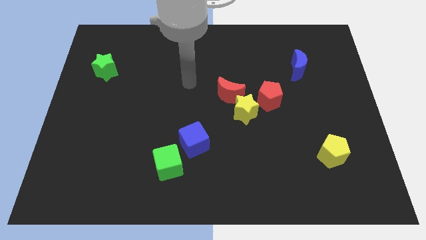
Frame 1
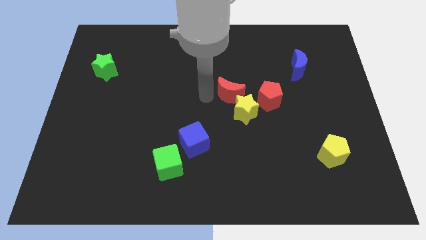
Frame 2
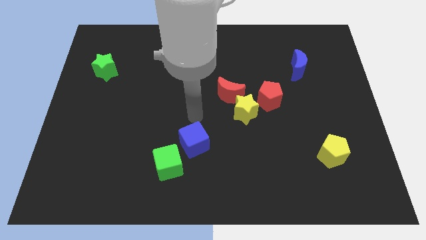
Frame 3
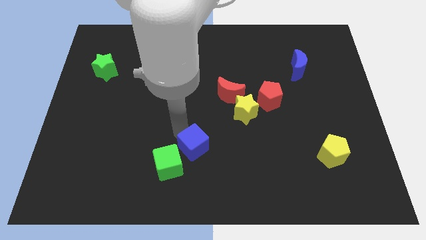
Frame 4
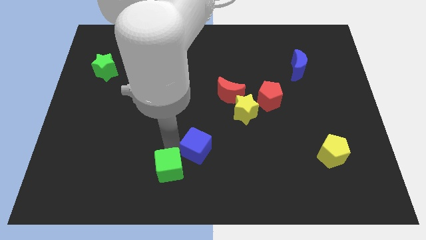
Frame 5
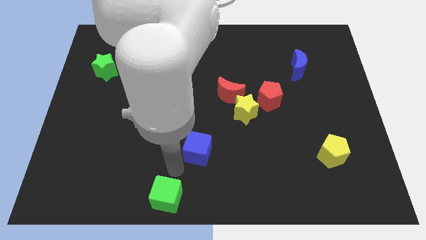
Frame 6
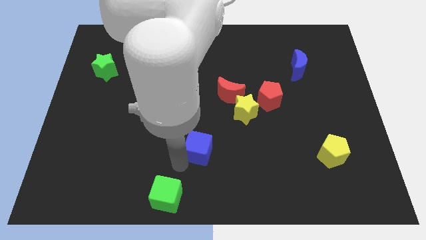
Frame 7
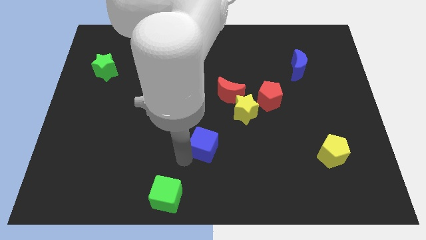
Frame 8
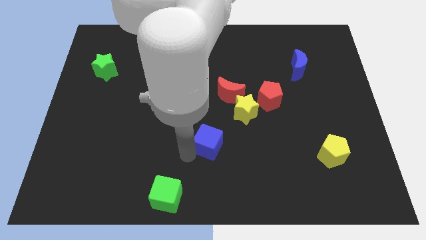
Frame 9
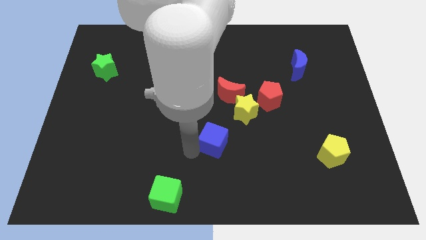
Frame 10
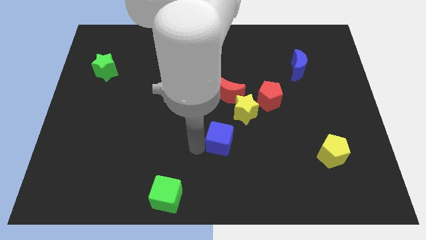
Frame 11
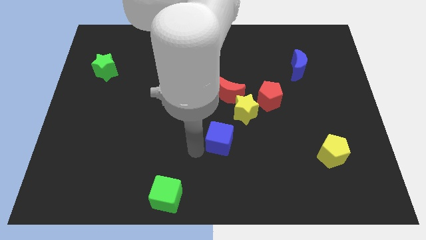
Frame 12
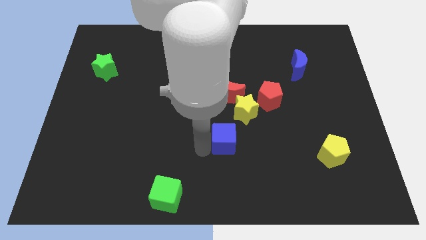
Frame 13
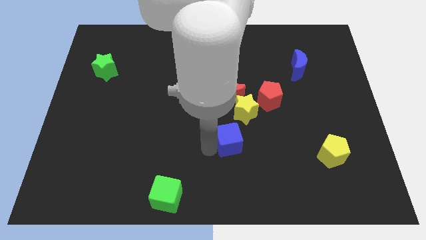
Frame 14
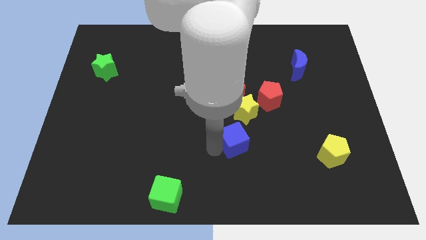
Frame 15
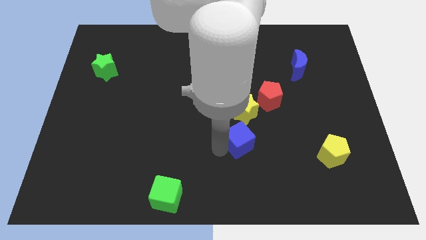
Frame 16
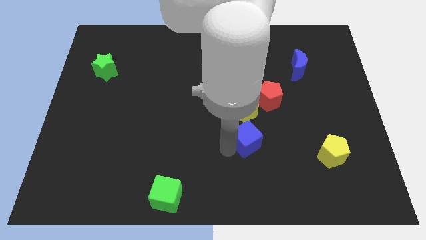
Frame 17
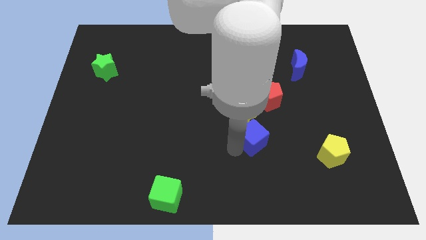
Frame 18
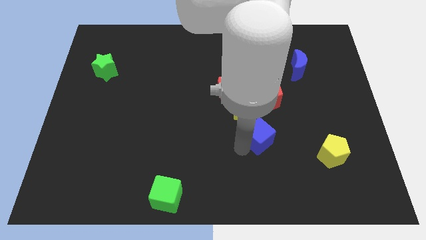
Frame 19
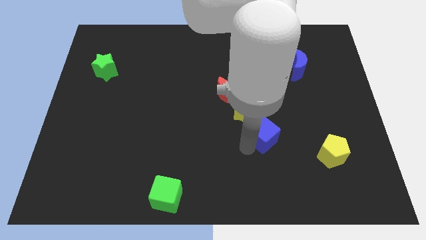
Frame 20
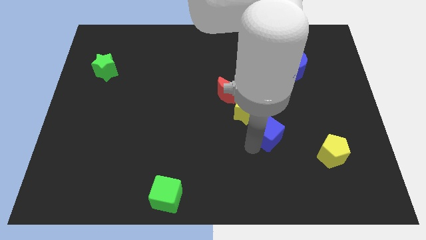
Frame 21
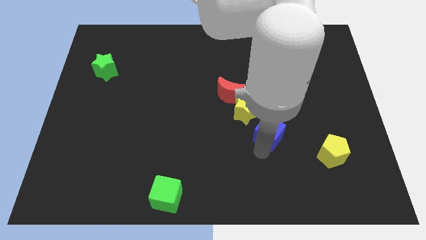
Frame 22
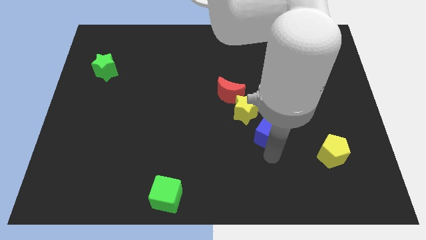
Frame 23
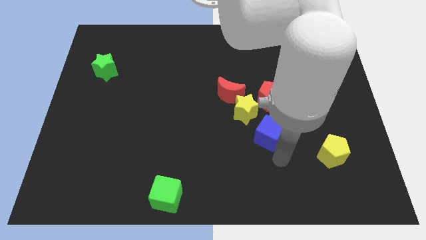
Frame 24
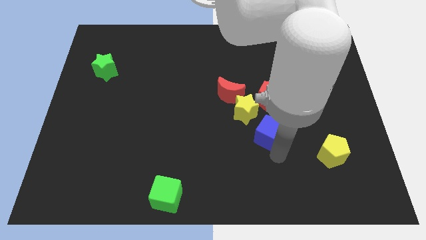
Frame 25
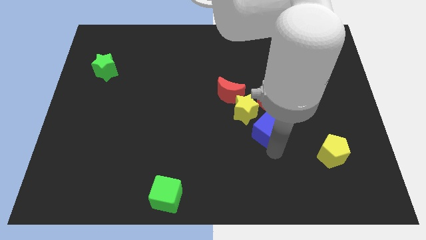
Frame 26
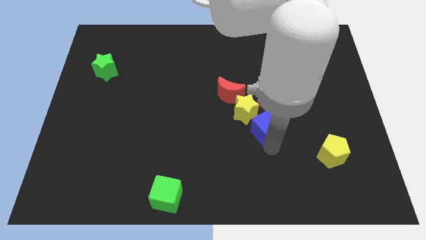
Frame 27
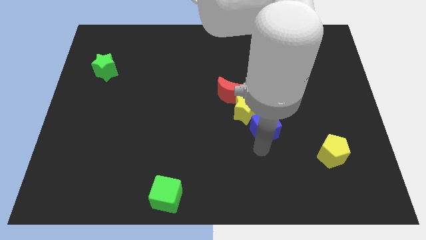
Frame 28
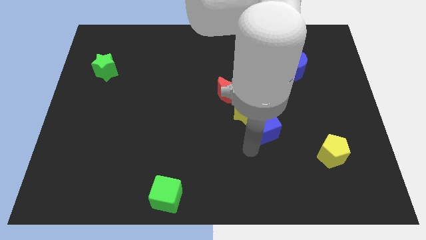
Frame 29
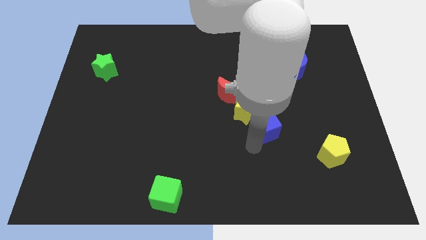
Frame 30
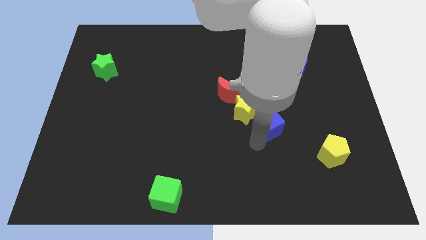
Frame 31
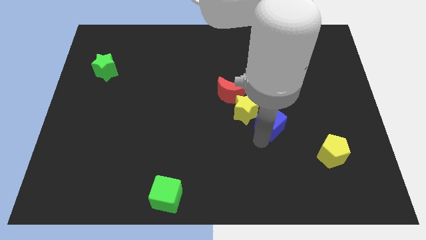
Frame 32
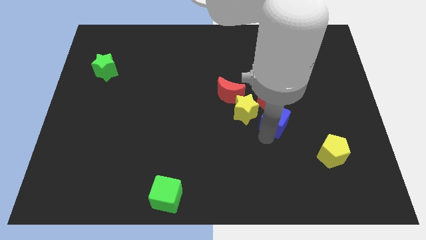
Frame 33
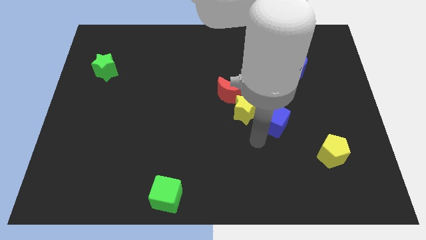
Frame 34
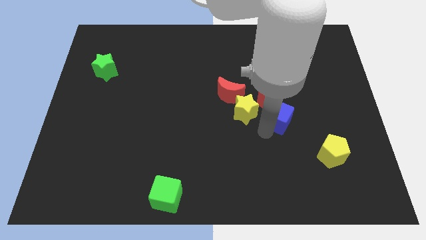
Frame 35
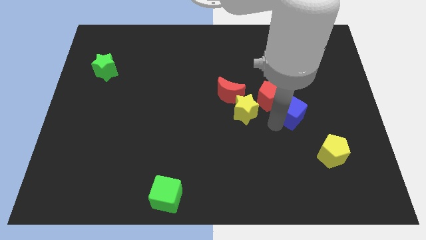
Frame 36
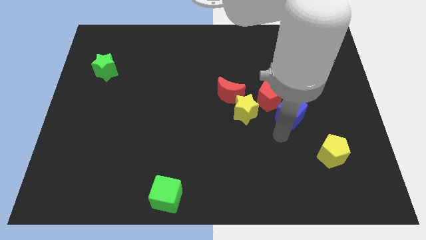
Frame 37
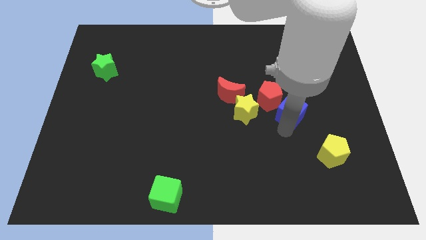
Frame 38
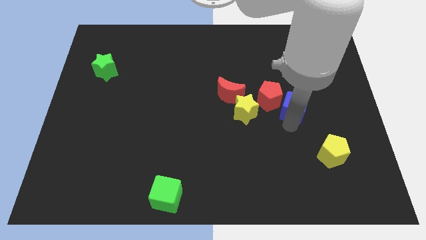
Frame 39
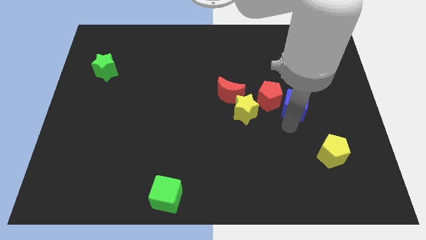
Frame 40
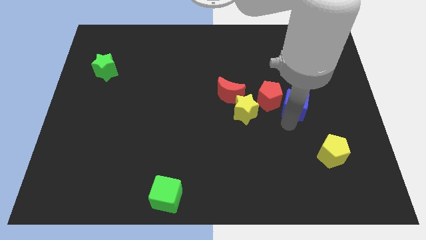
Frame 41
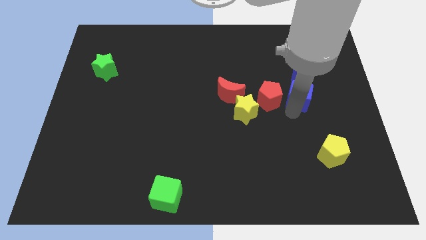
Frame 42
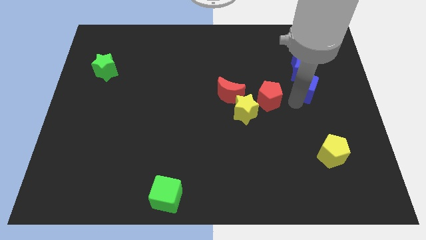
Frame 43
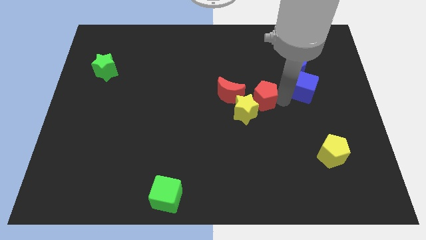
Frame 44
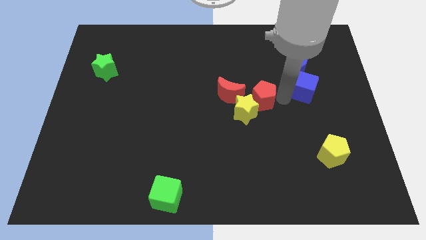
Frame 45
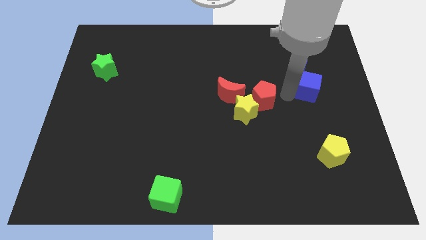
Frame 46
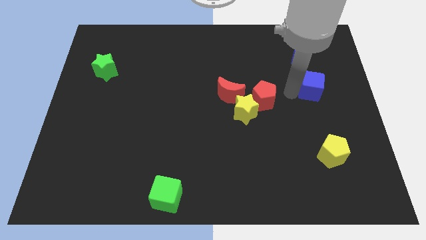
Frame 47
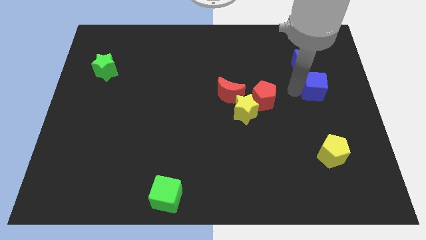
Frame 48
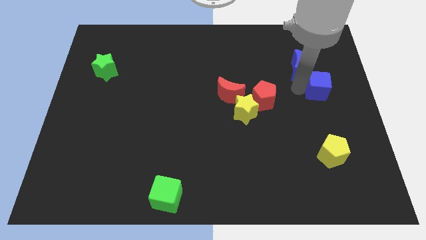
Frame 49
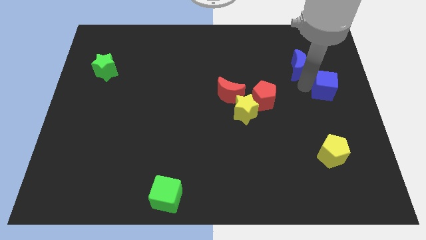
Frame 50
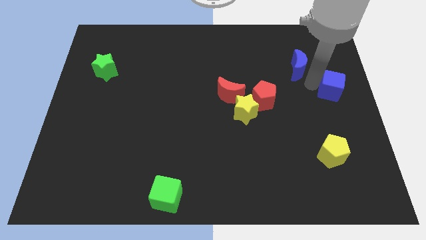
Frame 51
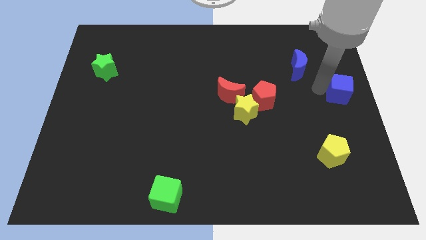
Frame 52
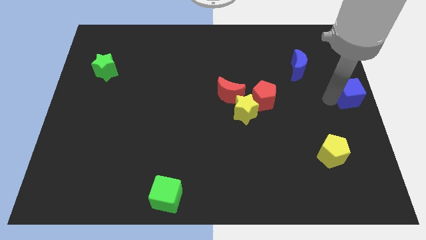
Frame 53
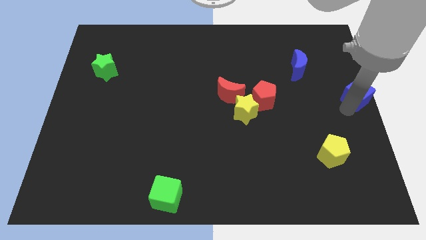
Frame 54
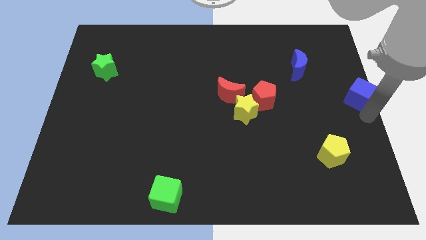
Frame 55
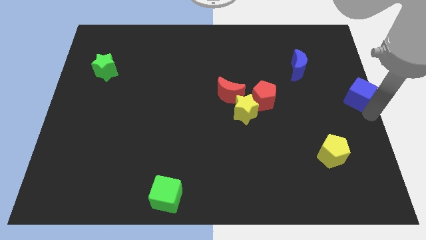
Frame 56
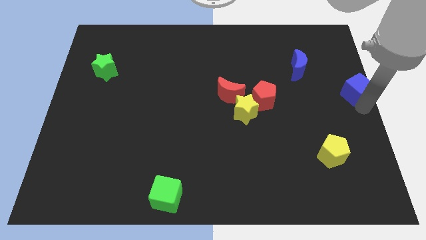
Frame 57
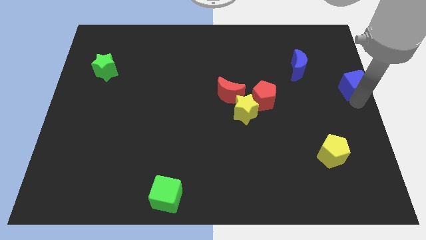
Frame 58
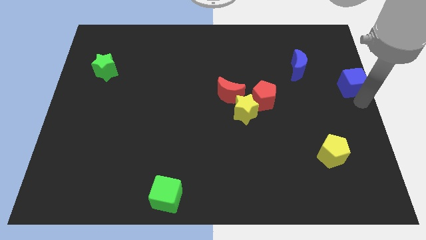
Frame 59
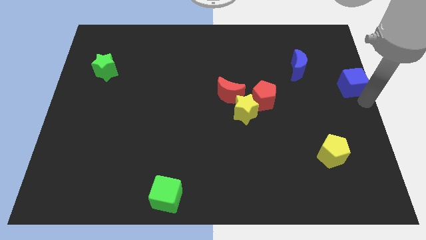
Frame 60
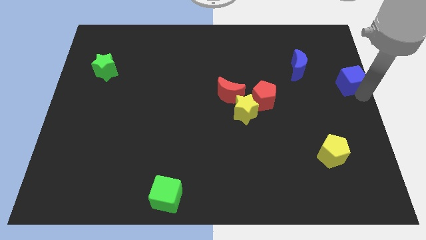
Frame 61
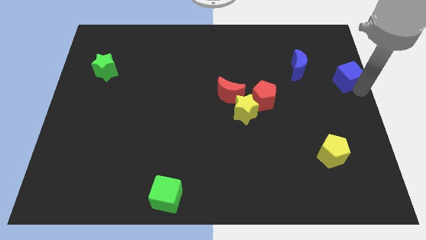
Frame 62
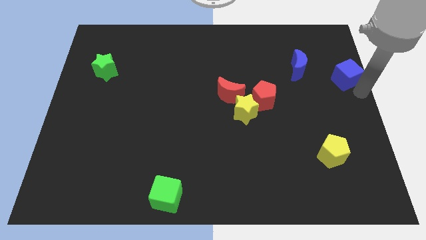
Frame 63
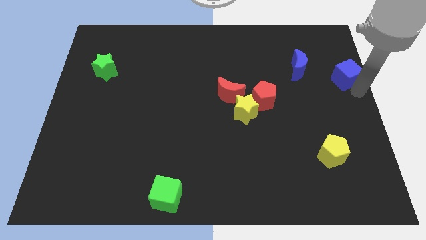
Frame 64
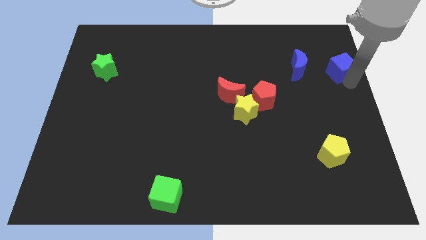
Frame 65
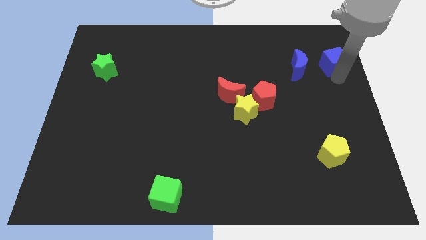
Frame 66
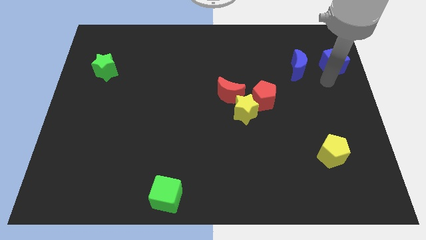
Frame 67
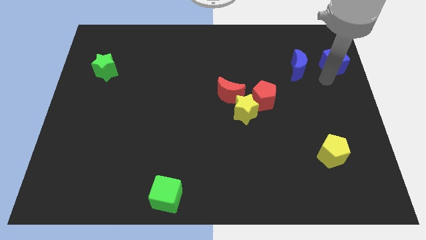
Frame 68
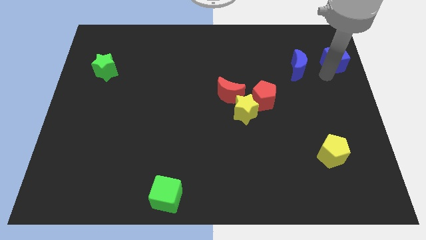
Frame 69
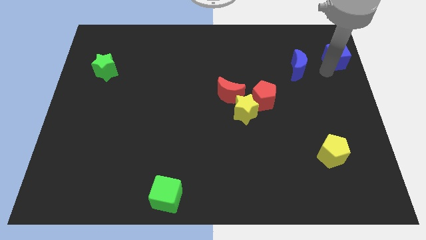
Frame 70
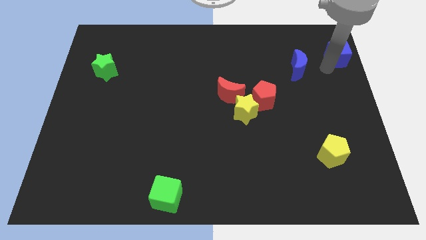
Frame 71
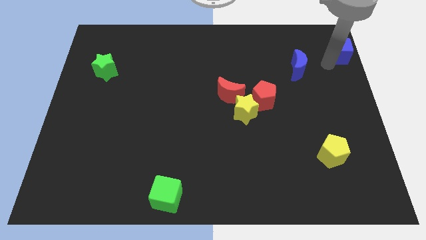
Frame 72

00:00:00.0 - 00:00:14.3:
slide the blue cube to the top right corner

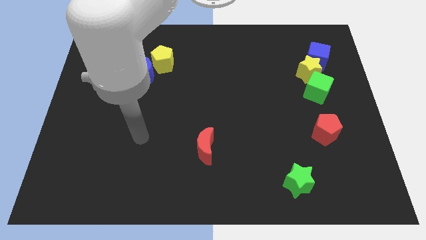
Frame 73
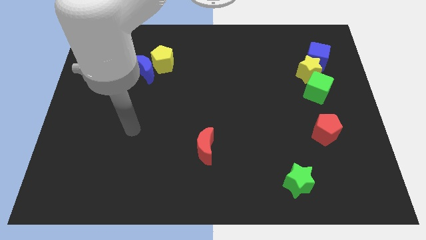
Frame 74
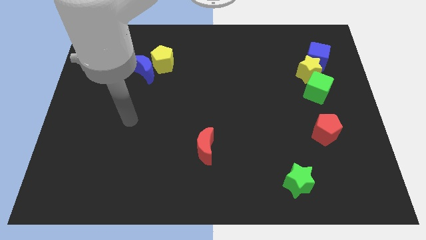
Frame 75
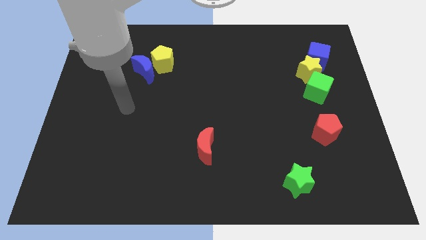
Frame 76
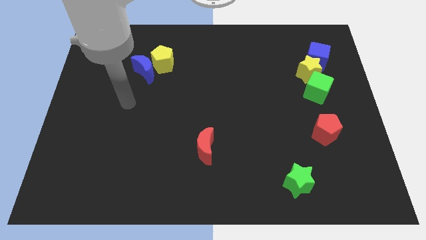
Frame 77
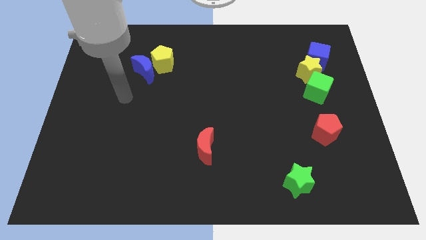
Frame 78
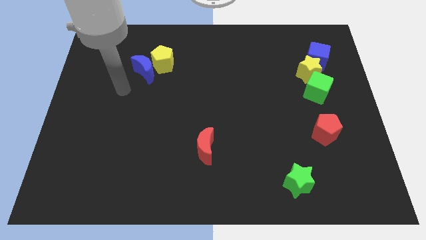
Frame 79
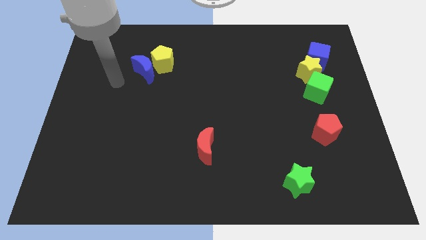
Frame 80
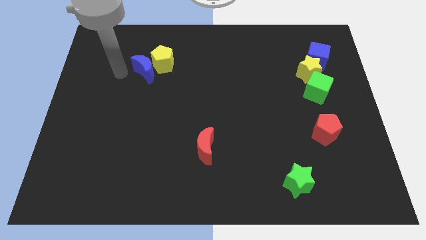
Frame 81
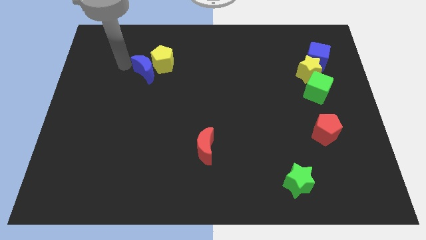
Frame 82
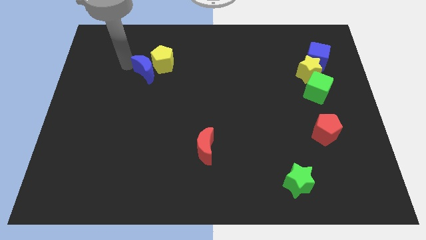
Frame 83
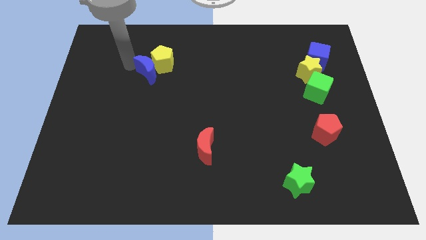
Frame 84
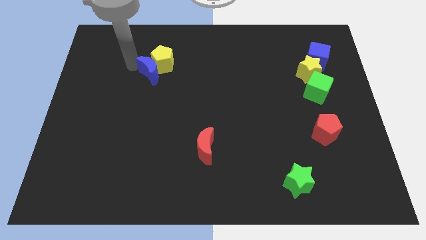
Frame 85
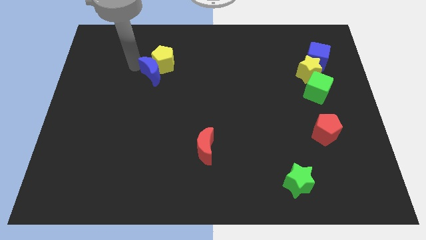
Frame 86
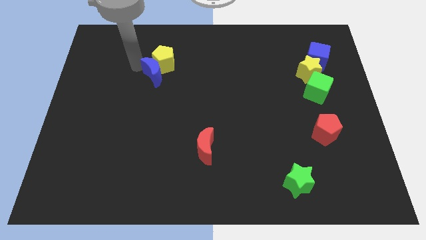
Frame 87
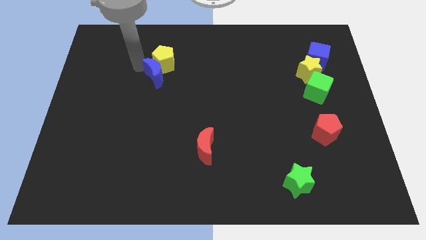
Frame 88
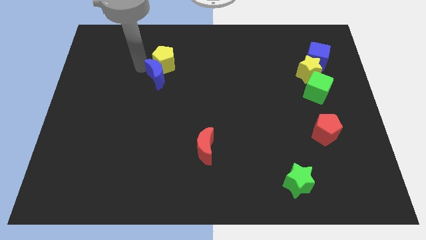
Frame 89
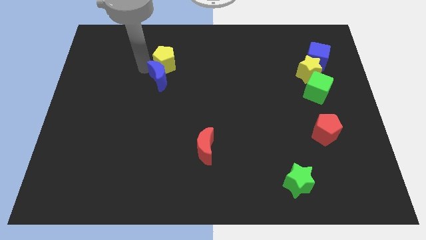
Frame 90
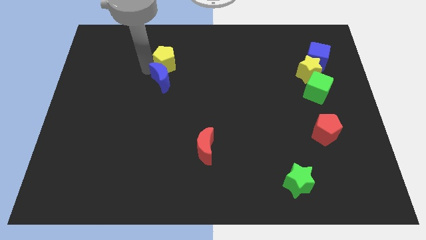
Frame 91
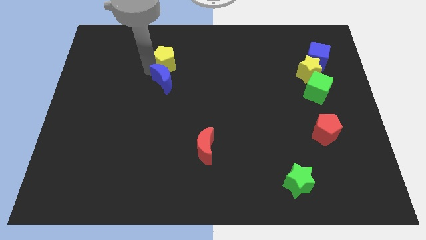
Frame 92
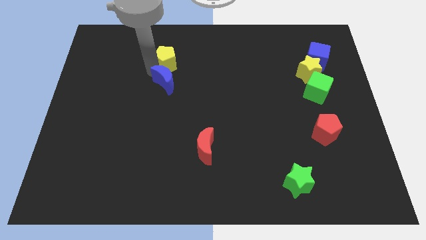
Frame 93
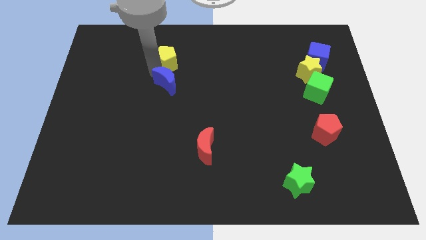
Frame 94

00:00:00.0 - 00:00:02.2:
put the blue moon to the center of the board
